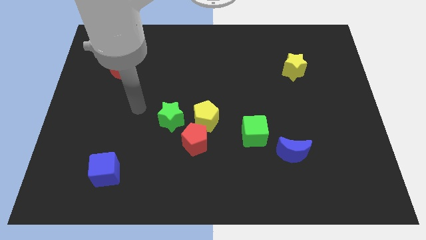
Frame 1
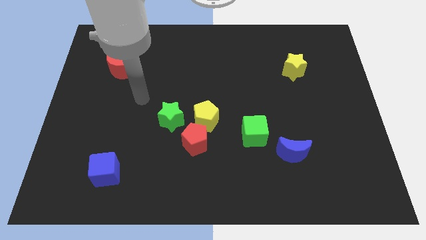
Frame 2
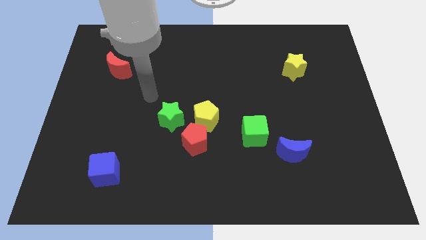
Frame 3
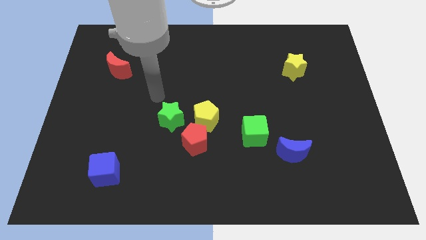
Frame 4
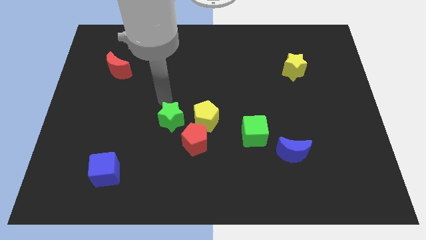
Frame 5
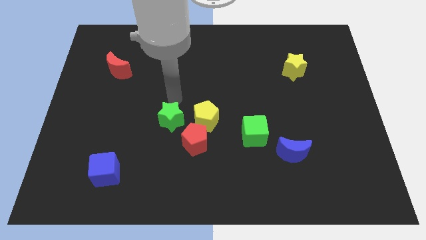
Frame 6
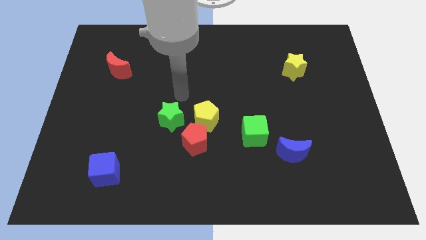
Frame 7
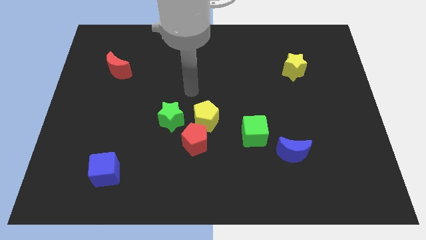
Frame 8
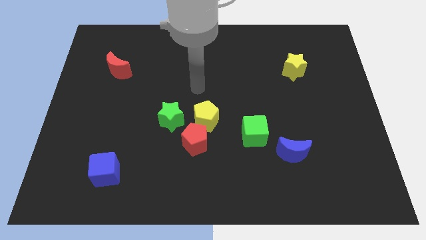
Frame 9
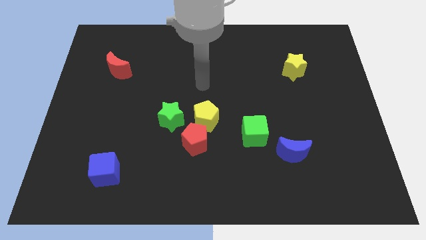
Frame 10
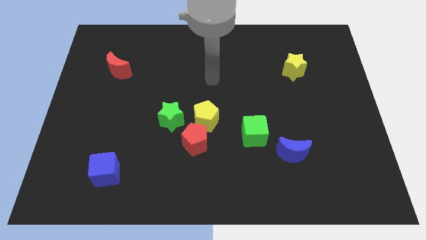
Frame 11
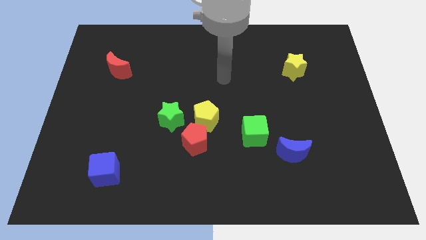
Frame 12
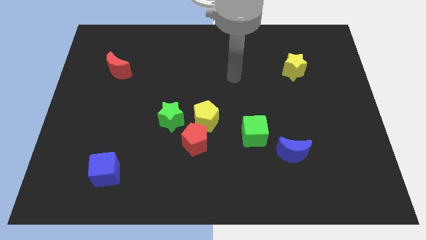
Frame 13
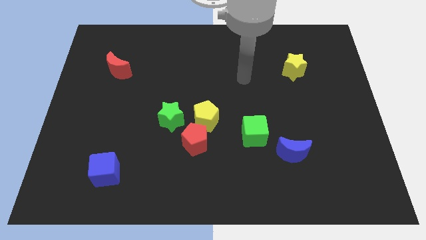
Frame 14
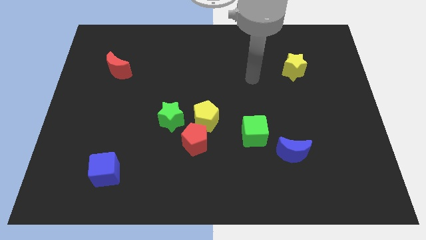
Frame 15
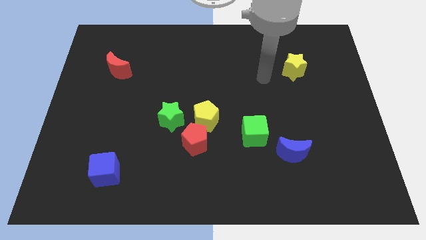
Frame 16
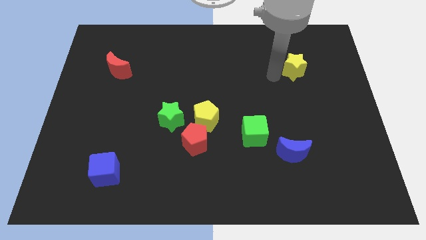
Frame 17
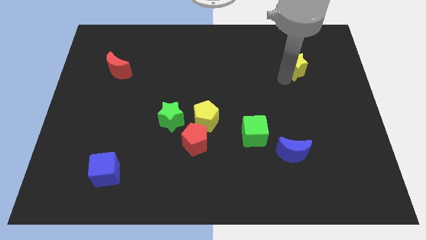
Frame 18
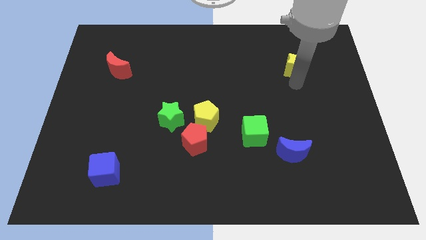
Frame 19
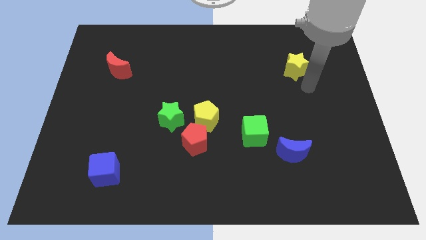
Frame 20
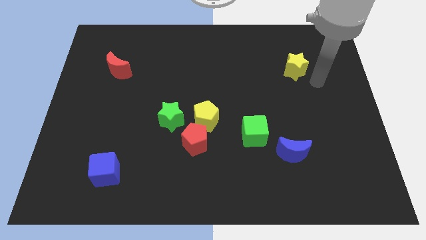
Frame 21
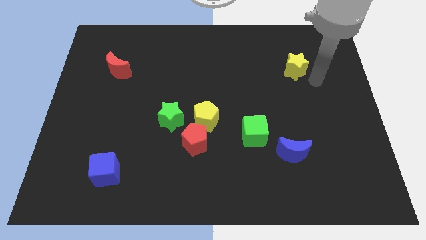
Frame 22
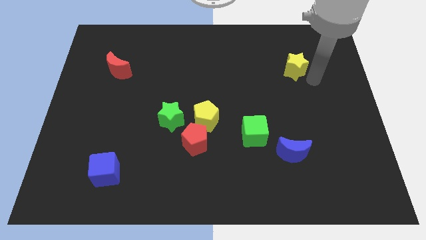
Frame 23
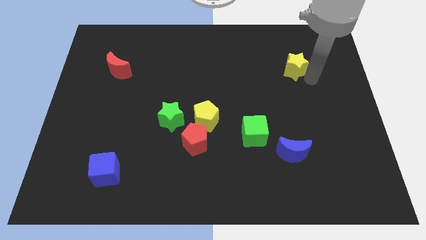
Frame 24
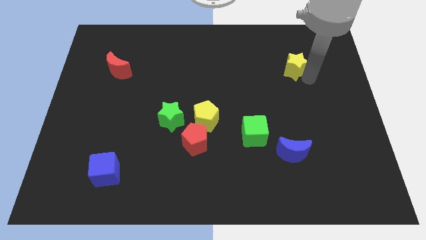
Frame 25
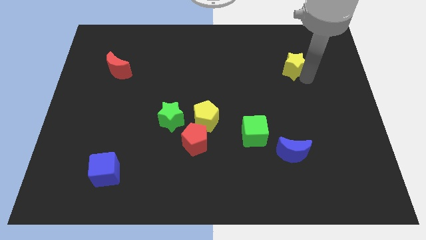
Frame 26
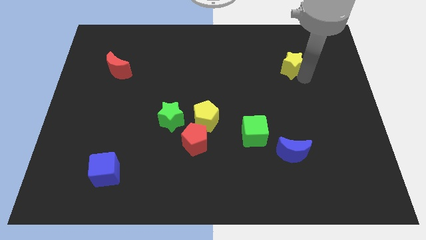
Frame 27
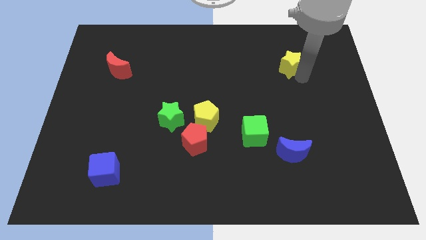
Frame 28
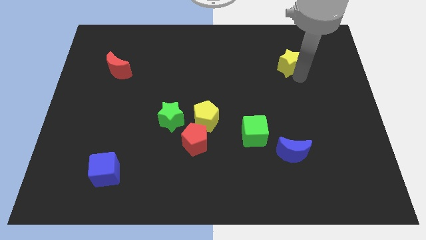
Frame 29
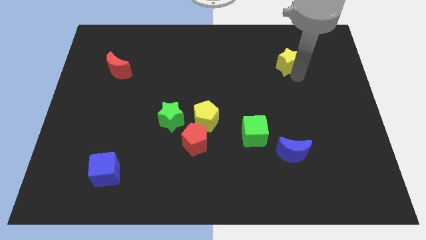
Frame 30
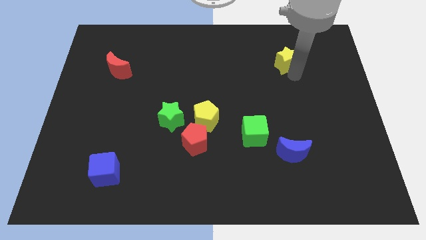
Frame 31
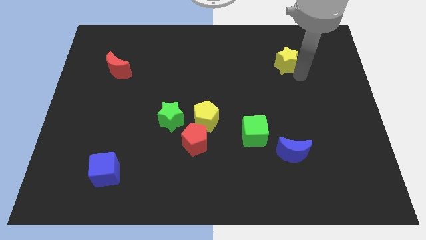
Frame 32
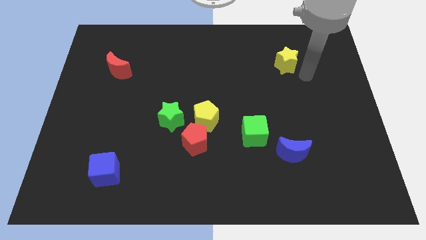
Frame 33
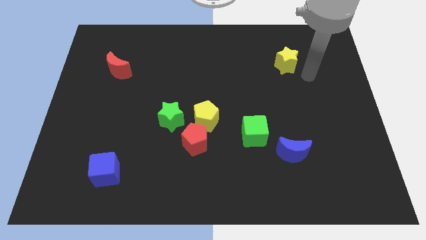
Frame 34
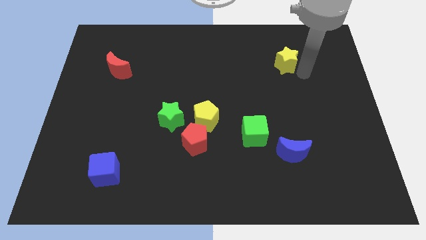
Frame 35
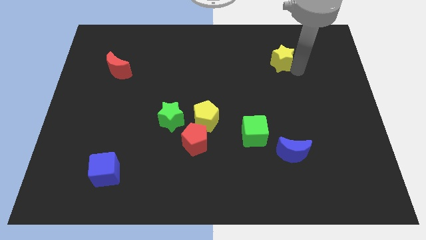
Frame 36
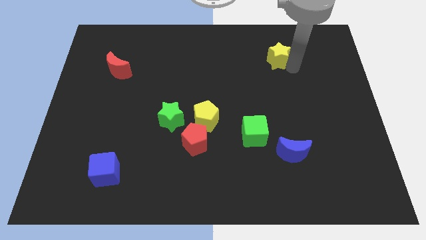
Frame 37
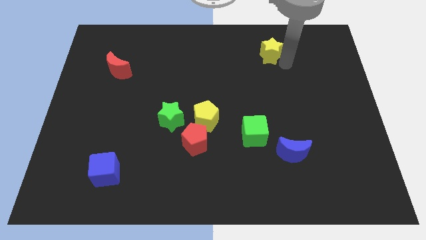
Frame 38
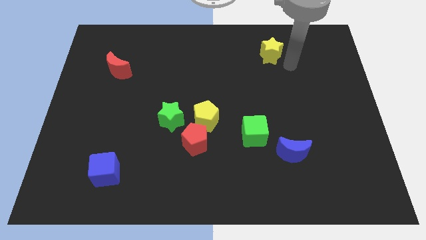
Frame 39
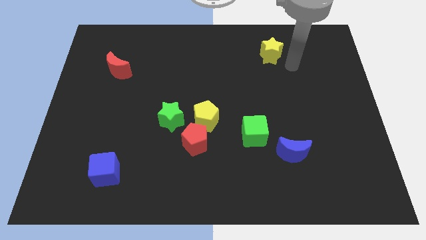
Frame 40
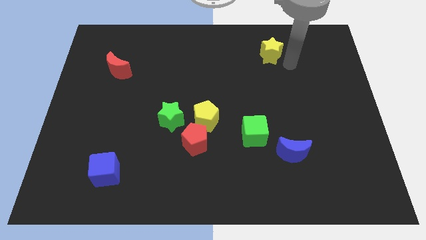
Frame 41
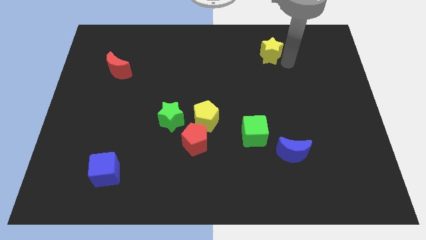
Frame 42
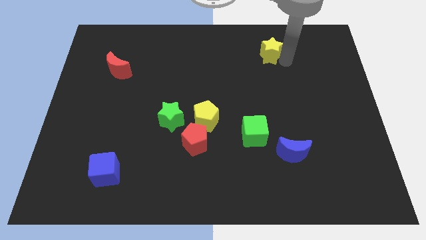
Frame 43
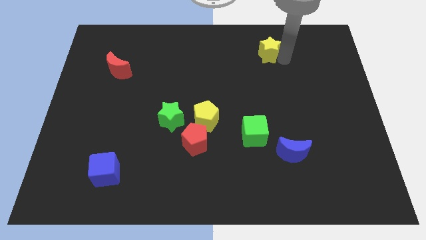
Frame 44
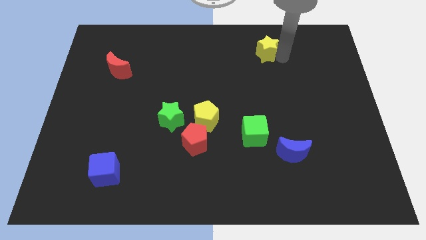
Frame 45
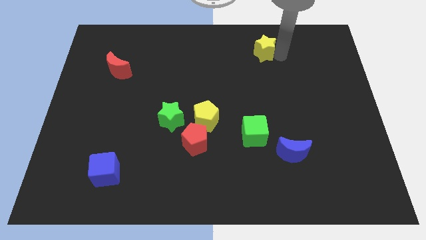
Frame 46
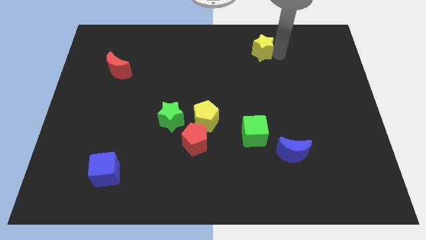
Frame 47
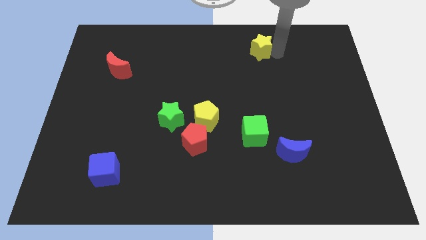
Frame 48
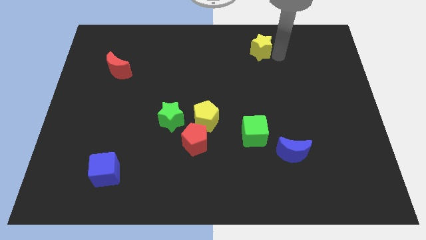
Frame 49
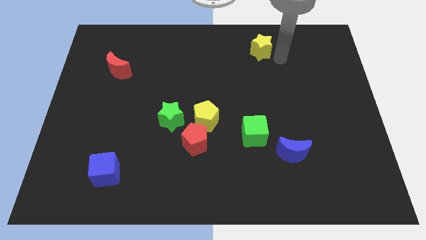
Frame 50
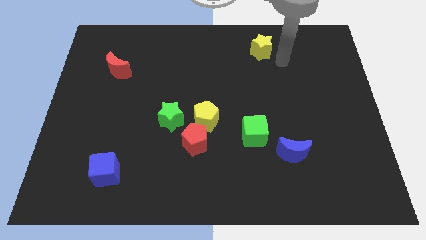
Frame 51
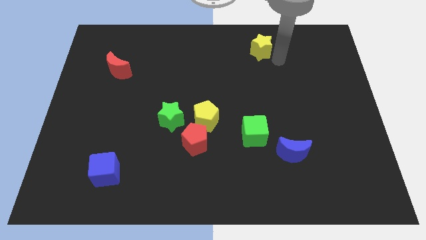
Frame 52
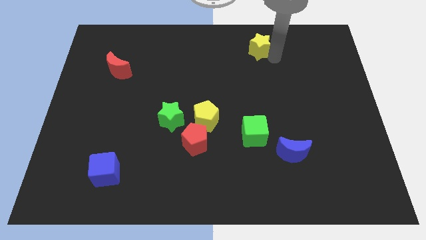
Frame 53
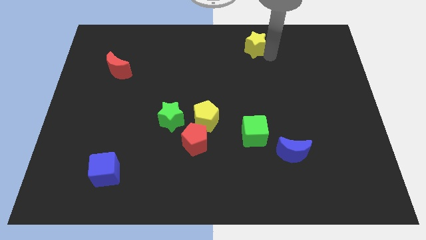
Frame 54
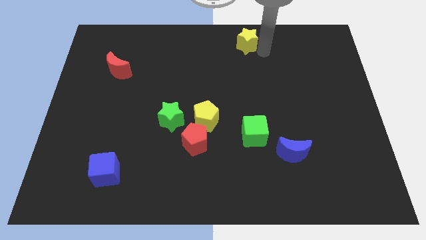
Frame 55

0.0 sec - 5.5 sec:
slide the yellow star to the top side

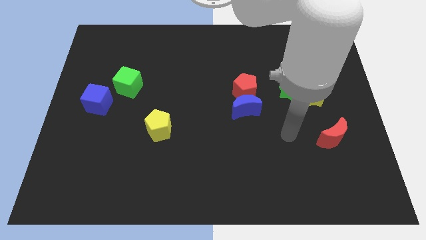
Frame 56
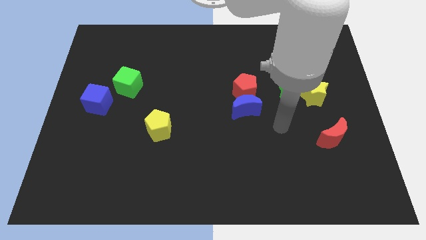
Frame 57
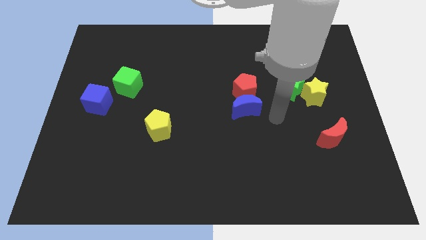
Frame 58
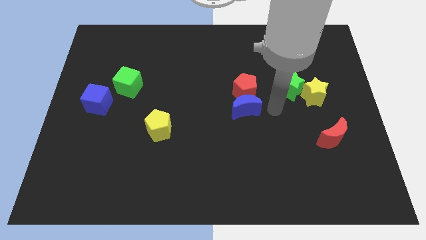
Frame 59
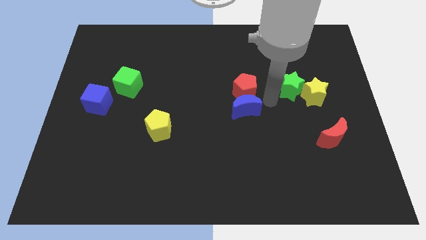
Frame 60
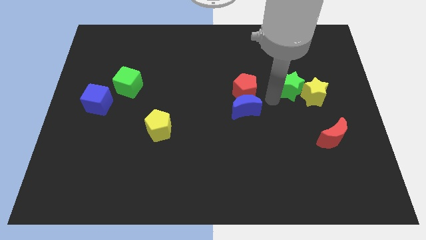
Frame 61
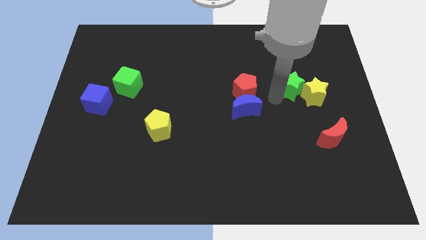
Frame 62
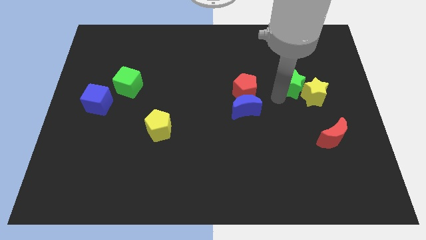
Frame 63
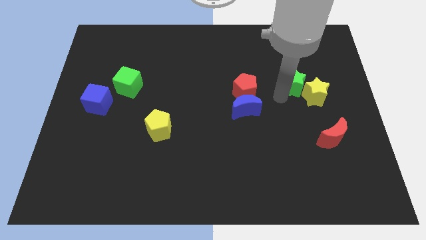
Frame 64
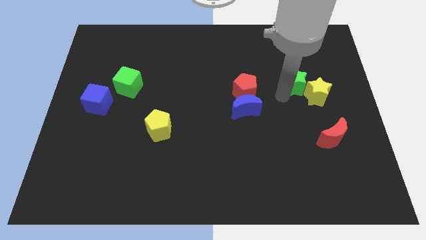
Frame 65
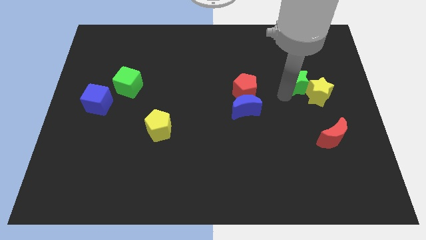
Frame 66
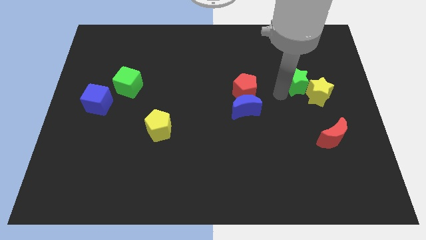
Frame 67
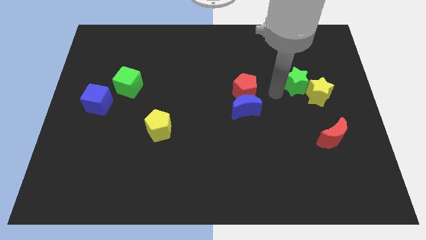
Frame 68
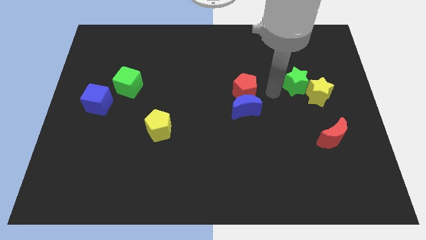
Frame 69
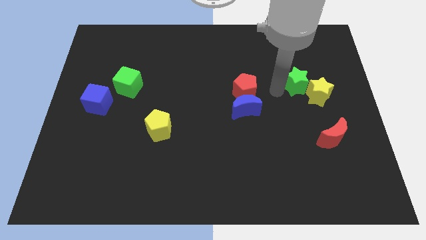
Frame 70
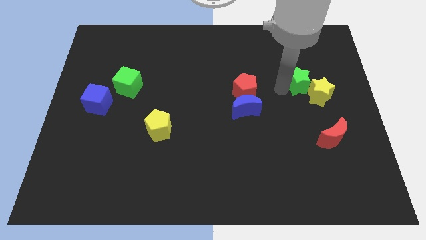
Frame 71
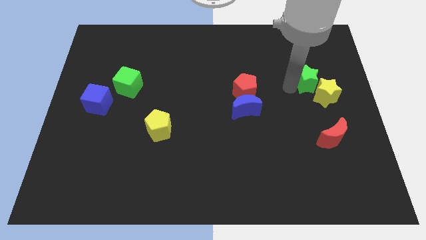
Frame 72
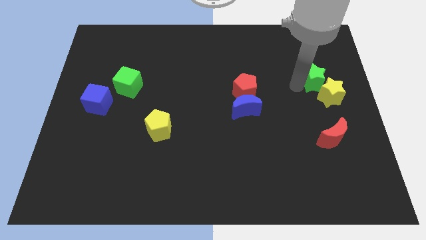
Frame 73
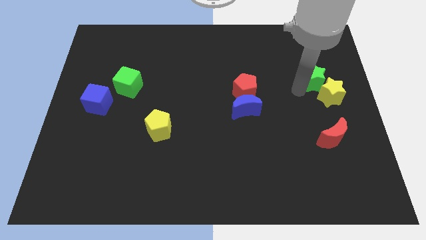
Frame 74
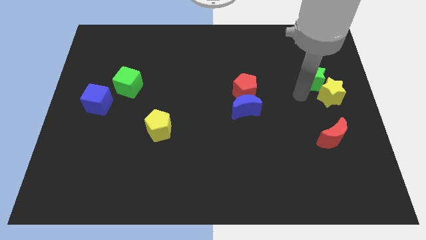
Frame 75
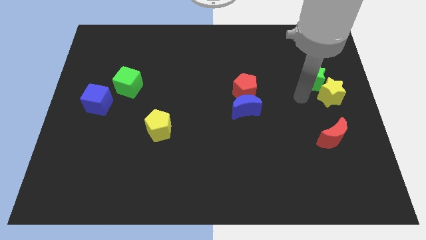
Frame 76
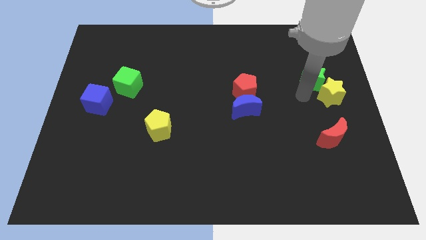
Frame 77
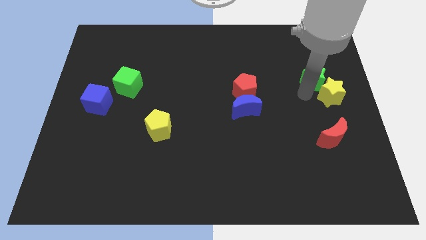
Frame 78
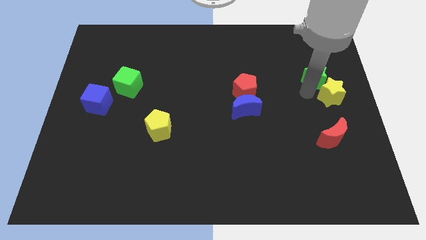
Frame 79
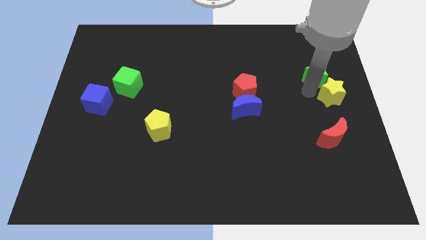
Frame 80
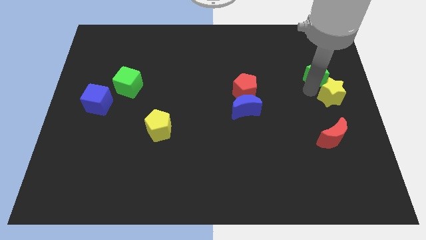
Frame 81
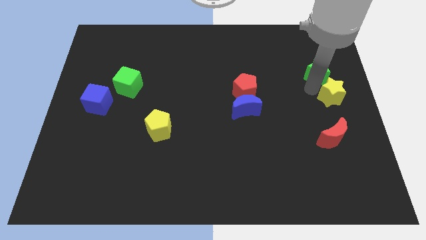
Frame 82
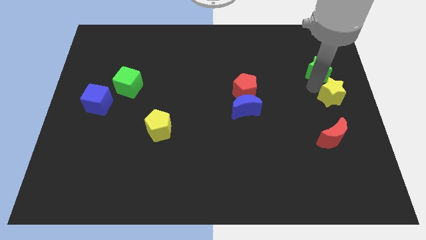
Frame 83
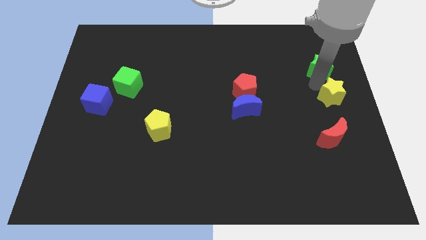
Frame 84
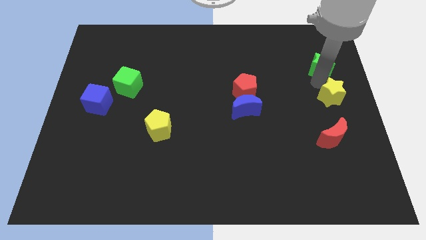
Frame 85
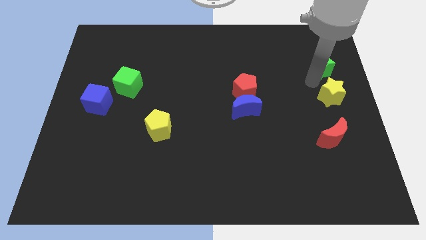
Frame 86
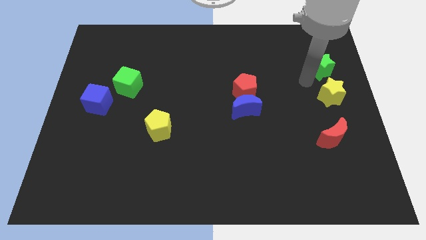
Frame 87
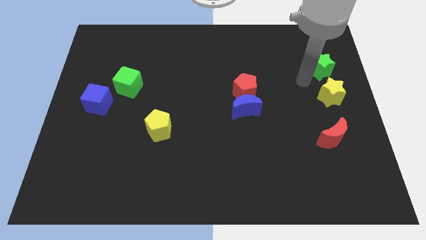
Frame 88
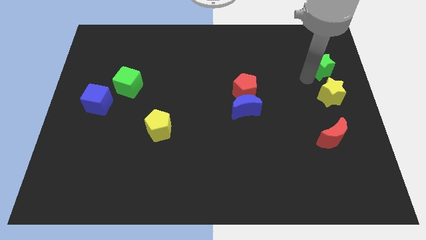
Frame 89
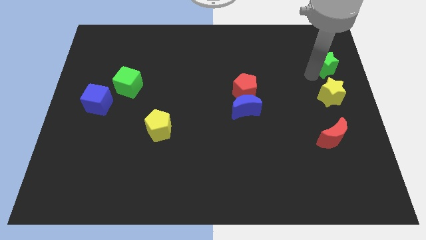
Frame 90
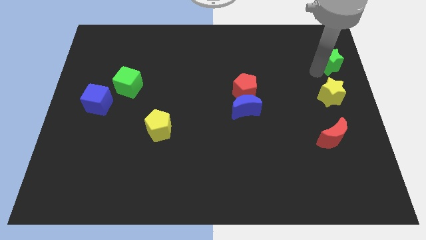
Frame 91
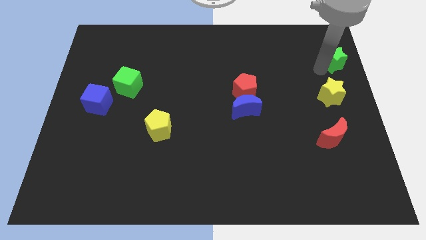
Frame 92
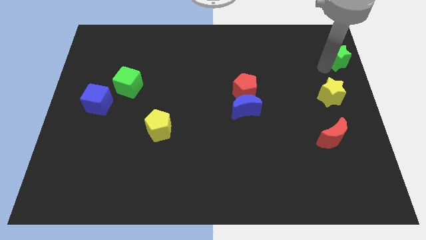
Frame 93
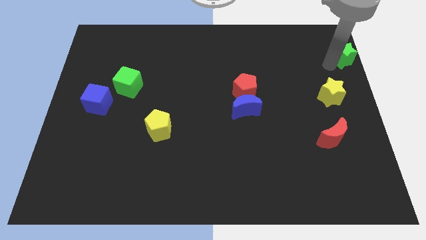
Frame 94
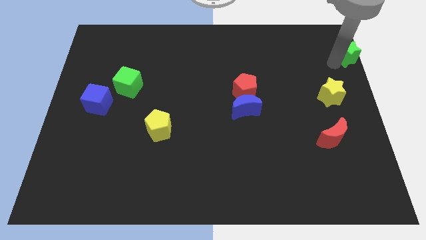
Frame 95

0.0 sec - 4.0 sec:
slide the green star to the top right corner
